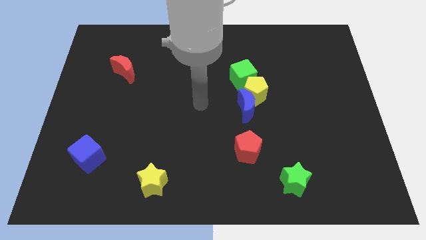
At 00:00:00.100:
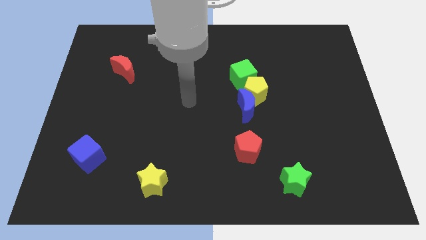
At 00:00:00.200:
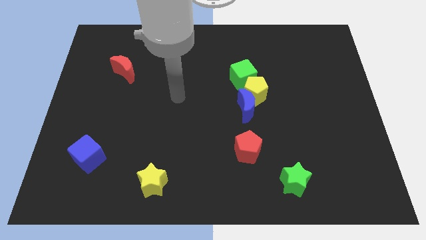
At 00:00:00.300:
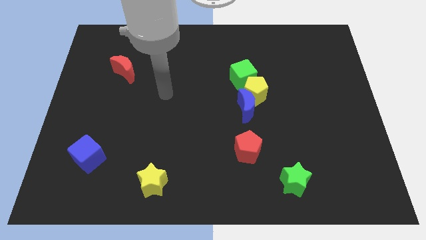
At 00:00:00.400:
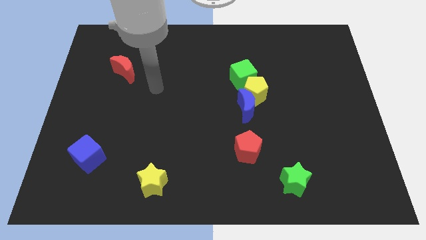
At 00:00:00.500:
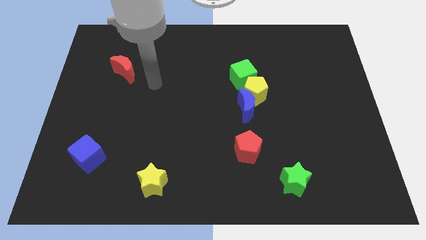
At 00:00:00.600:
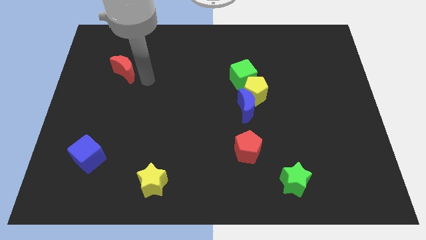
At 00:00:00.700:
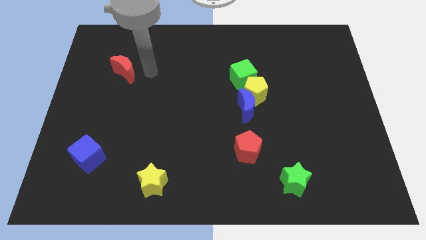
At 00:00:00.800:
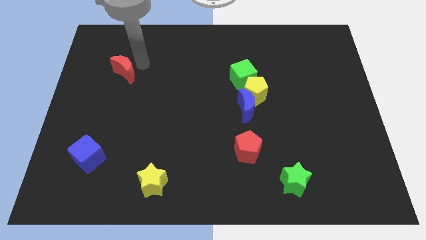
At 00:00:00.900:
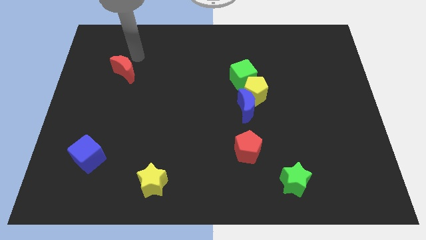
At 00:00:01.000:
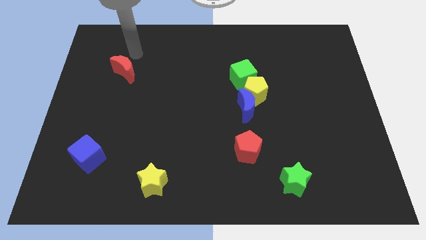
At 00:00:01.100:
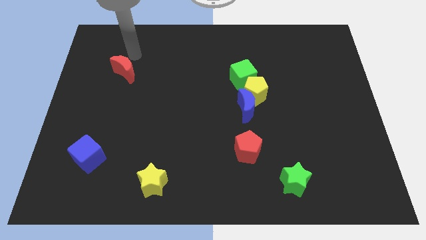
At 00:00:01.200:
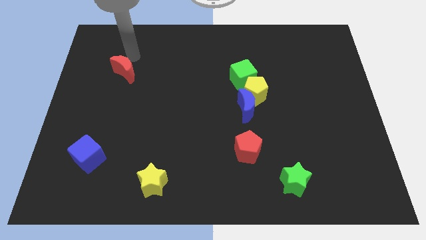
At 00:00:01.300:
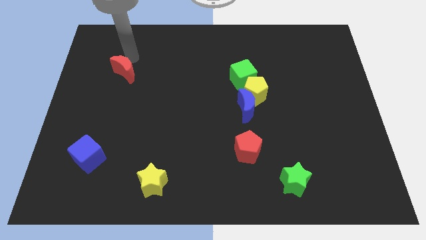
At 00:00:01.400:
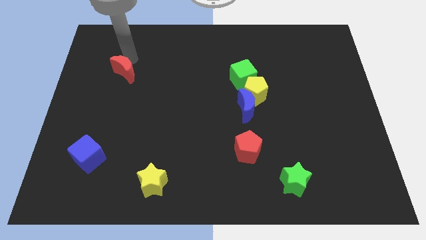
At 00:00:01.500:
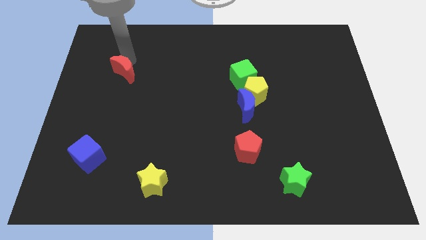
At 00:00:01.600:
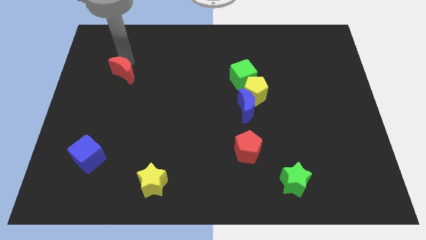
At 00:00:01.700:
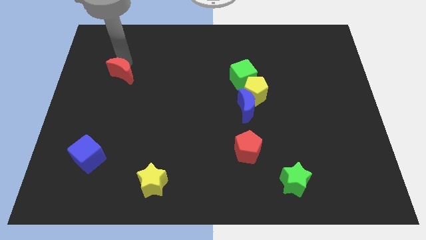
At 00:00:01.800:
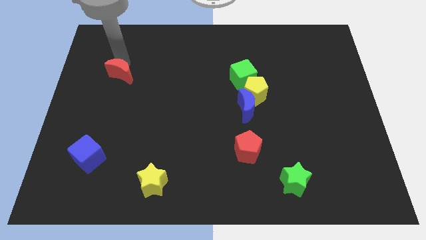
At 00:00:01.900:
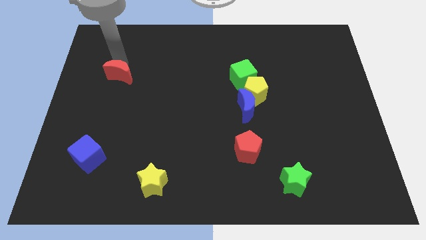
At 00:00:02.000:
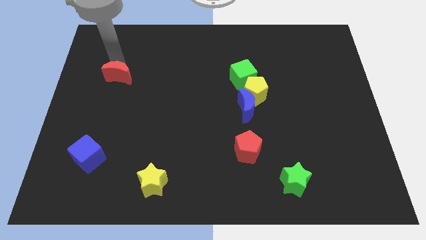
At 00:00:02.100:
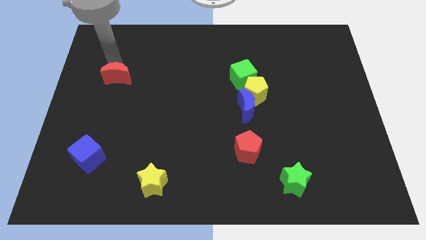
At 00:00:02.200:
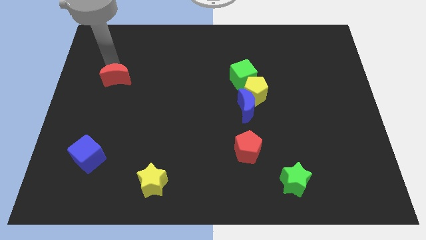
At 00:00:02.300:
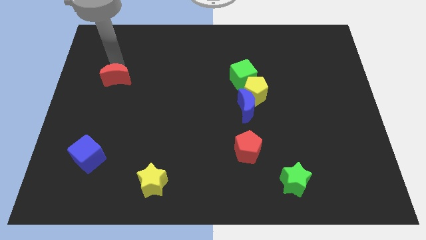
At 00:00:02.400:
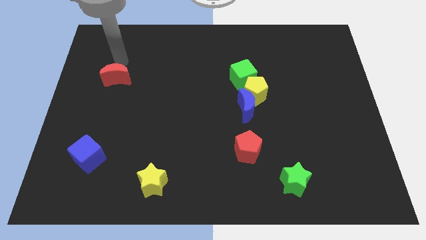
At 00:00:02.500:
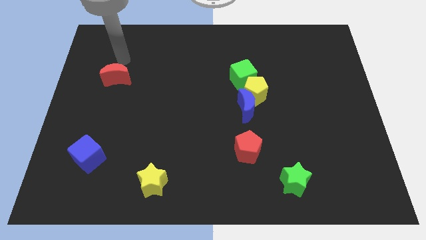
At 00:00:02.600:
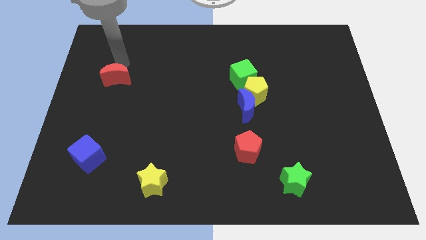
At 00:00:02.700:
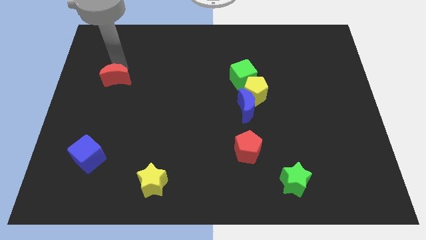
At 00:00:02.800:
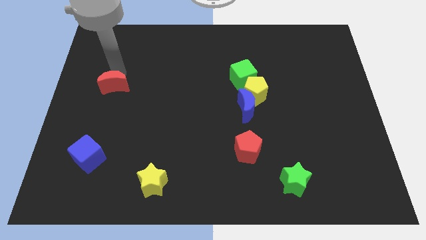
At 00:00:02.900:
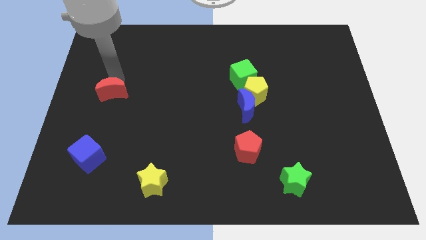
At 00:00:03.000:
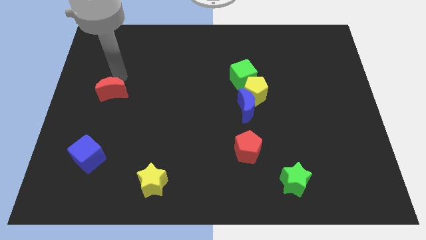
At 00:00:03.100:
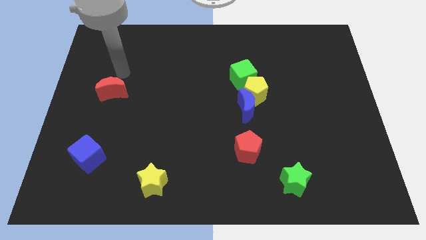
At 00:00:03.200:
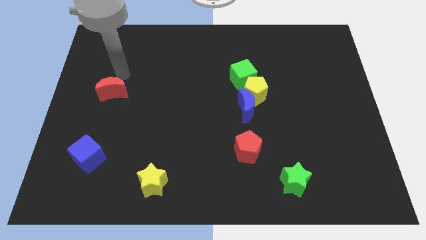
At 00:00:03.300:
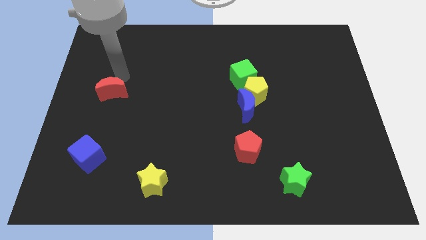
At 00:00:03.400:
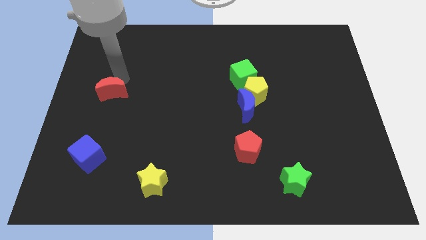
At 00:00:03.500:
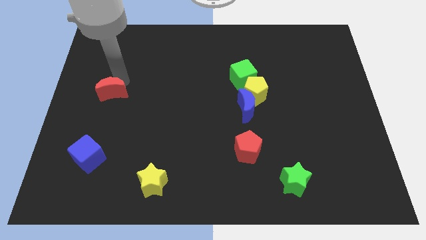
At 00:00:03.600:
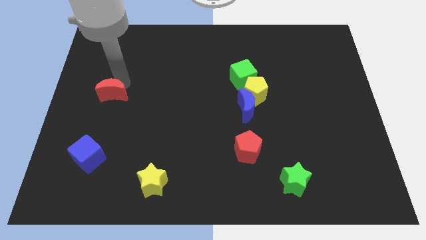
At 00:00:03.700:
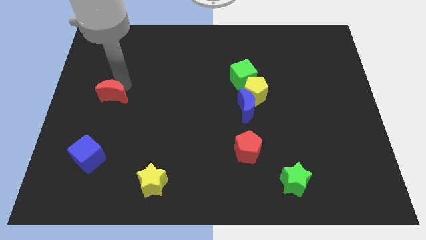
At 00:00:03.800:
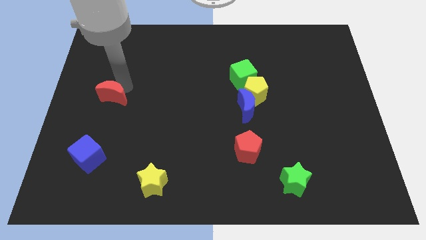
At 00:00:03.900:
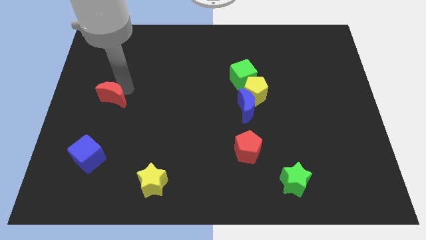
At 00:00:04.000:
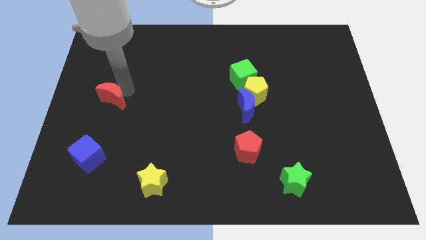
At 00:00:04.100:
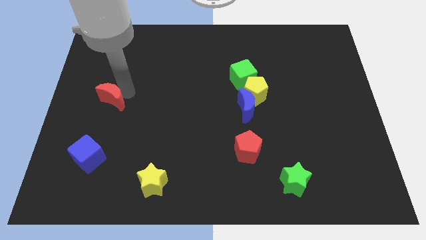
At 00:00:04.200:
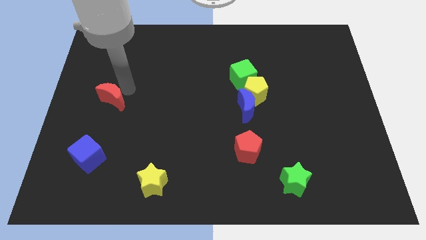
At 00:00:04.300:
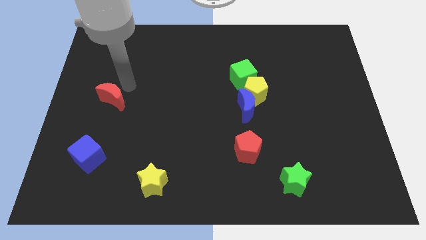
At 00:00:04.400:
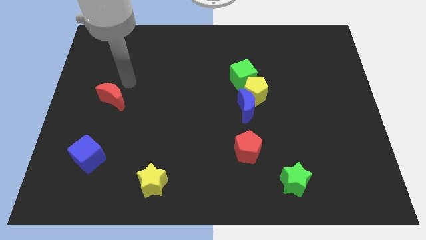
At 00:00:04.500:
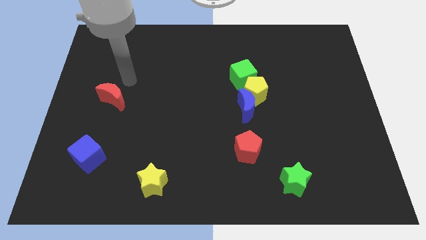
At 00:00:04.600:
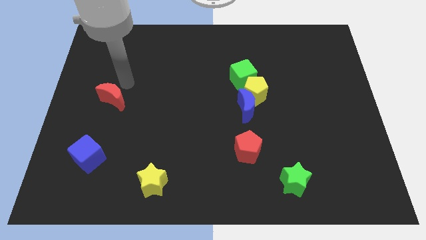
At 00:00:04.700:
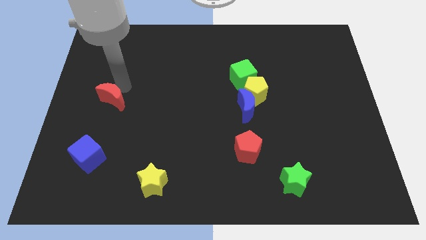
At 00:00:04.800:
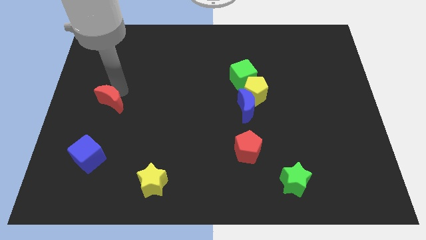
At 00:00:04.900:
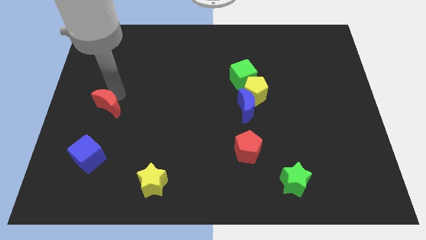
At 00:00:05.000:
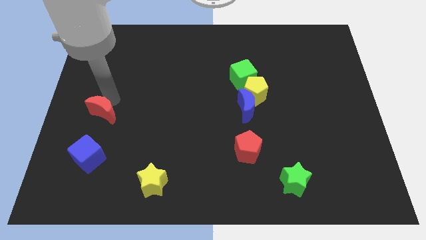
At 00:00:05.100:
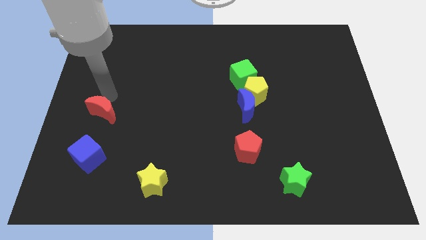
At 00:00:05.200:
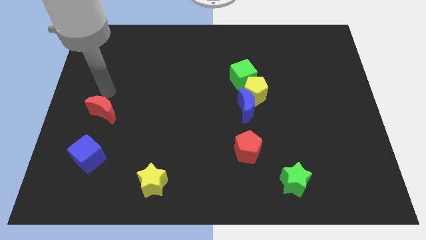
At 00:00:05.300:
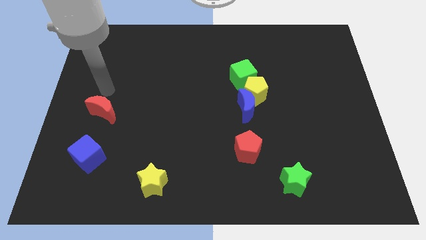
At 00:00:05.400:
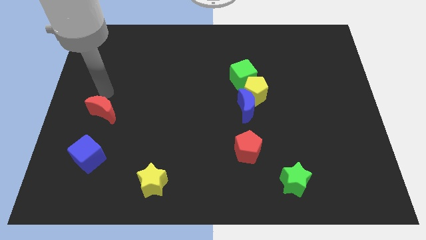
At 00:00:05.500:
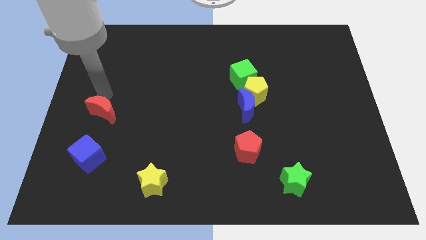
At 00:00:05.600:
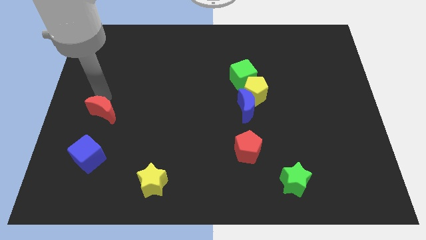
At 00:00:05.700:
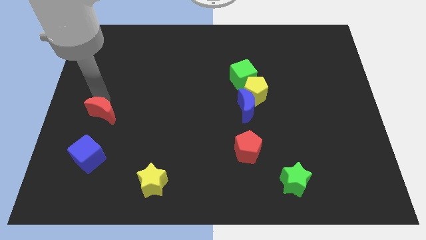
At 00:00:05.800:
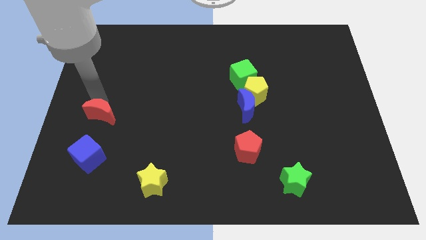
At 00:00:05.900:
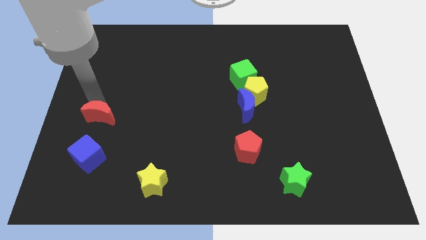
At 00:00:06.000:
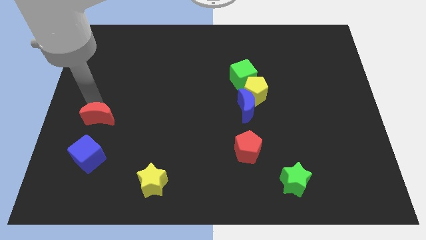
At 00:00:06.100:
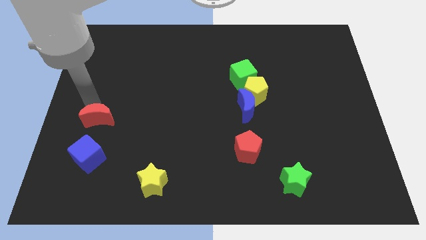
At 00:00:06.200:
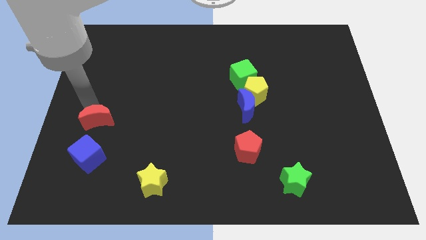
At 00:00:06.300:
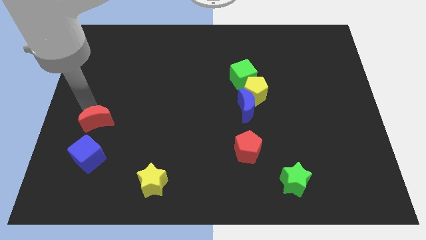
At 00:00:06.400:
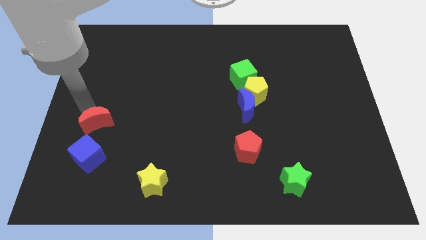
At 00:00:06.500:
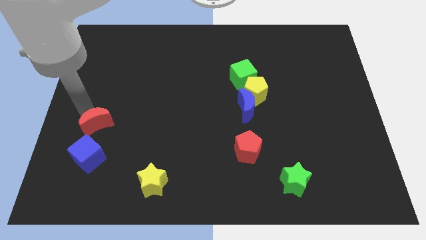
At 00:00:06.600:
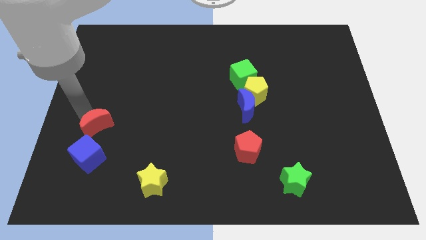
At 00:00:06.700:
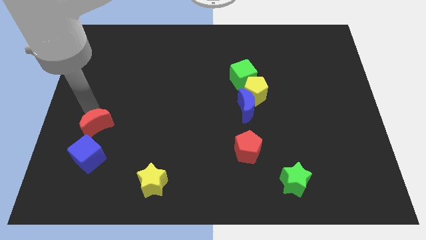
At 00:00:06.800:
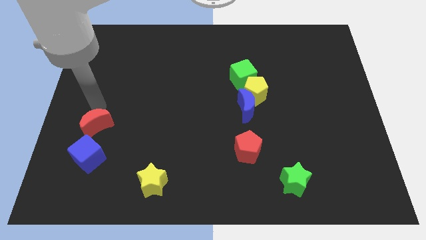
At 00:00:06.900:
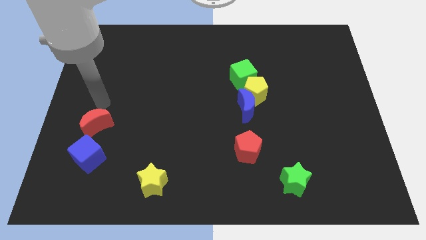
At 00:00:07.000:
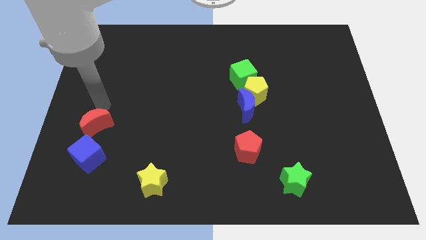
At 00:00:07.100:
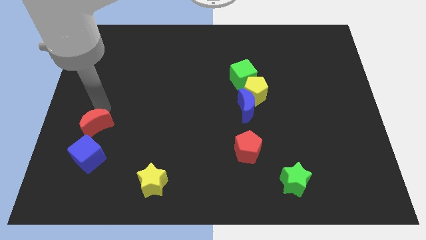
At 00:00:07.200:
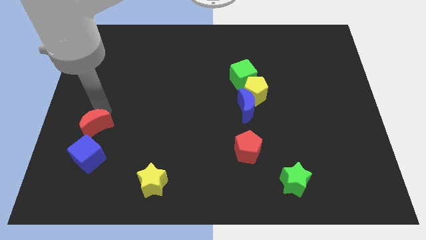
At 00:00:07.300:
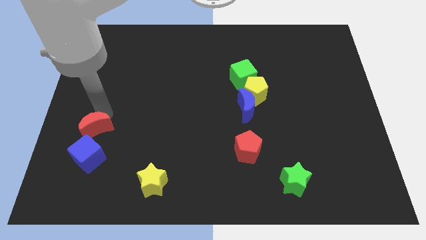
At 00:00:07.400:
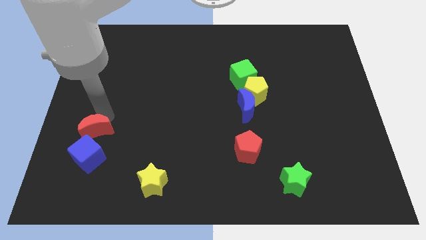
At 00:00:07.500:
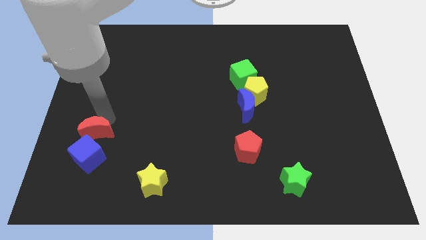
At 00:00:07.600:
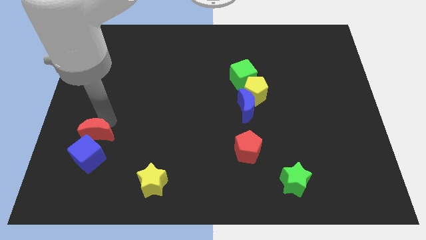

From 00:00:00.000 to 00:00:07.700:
slide the red moon close to the blue cube
